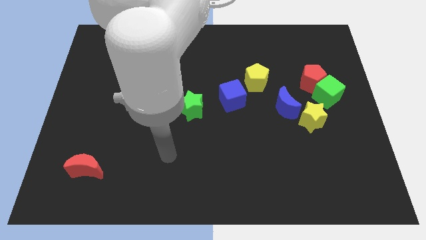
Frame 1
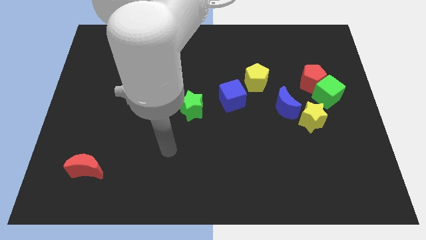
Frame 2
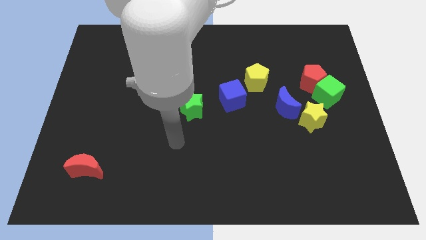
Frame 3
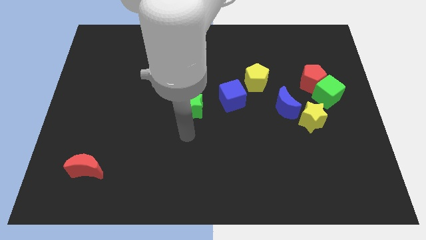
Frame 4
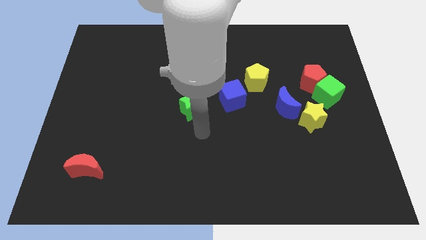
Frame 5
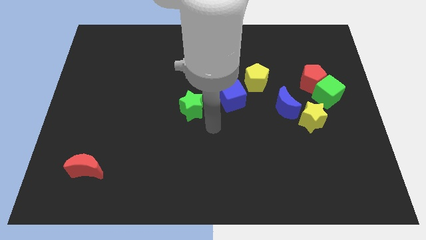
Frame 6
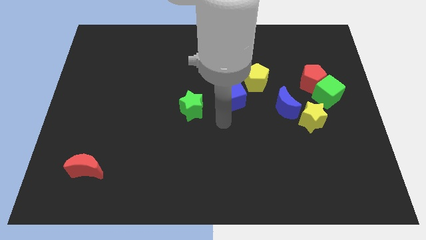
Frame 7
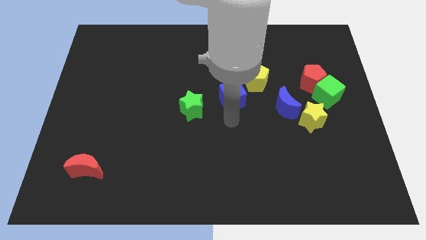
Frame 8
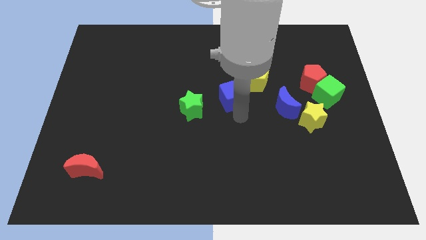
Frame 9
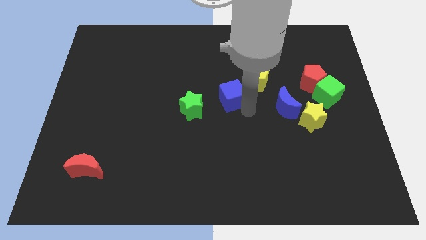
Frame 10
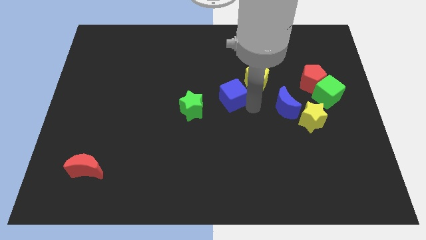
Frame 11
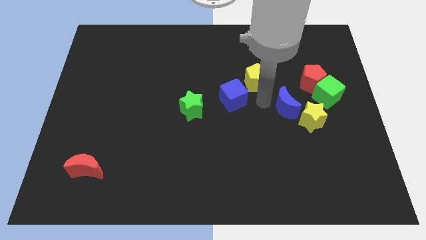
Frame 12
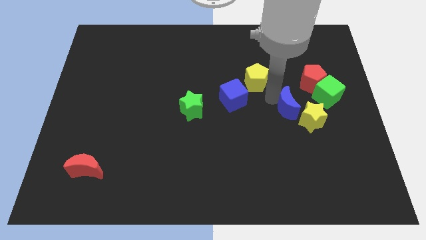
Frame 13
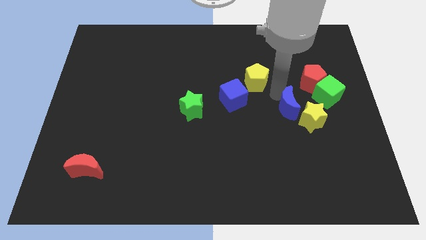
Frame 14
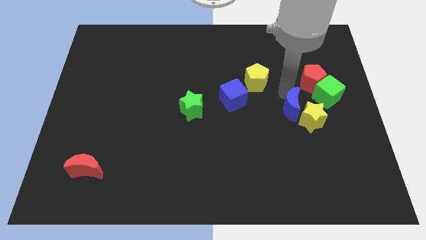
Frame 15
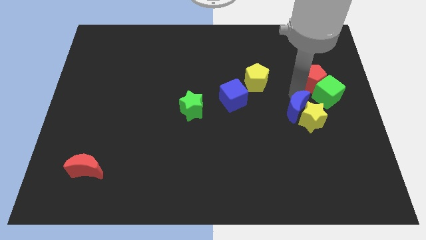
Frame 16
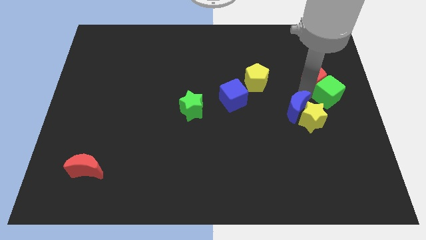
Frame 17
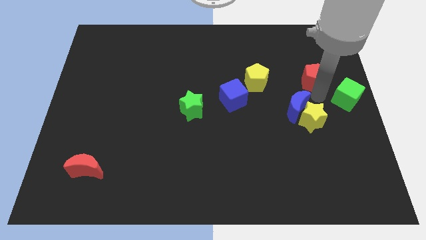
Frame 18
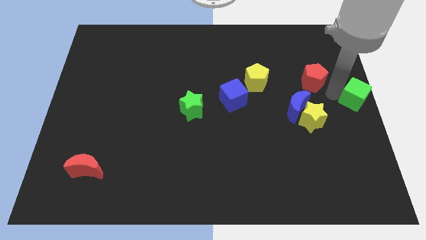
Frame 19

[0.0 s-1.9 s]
move the red pentagon away from the green cube

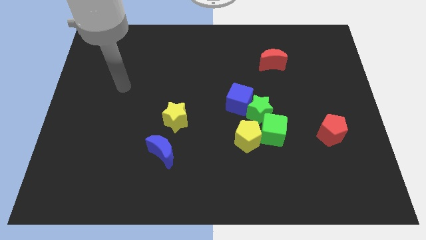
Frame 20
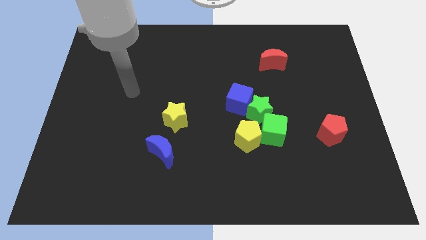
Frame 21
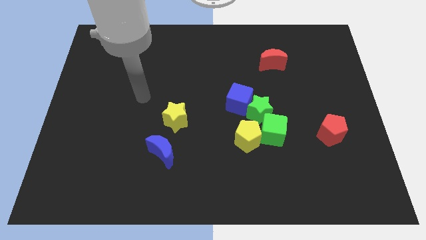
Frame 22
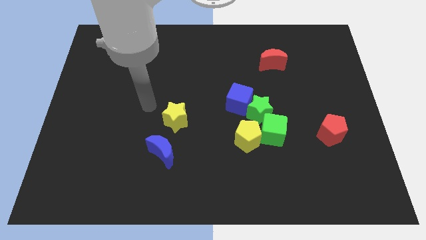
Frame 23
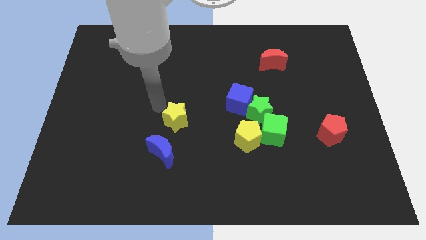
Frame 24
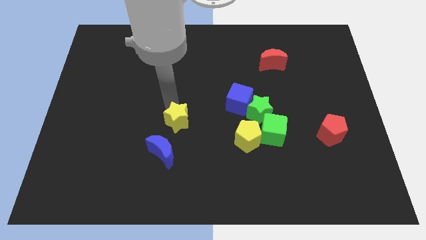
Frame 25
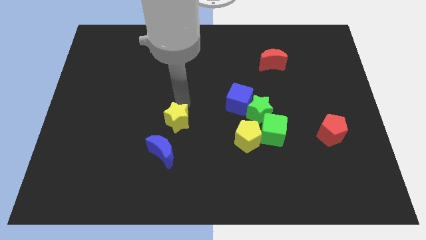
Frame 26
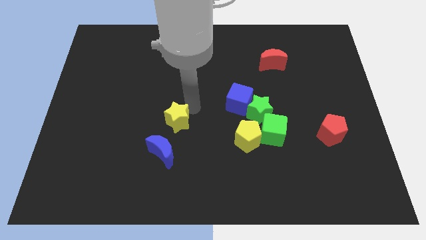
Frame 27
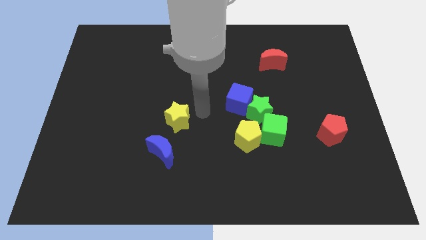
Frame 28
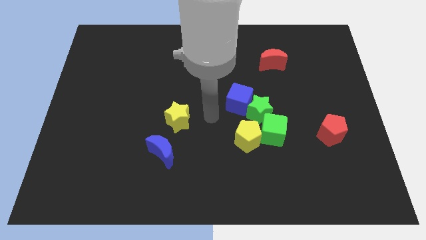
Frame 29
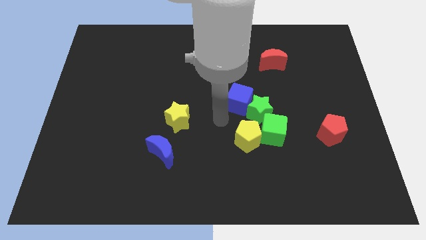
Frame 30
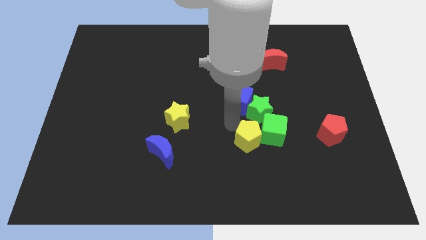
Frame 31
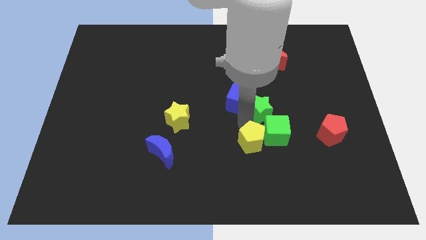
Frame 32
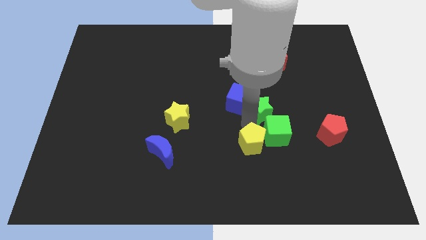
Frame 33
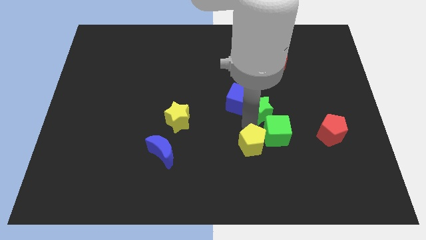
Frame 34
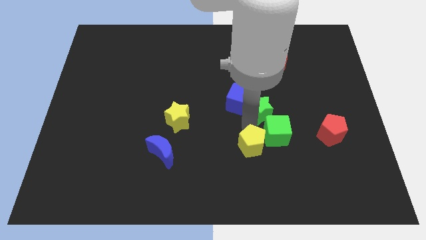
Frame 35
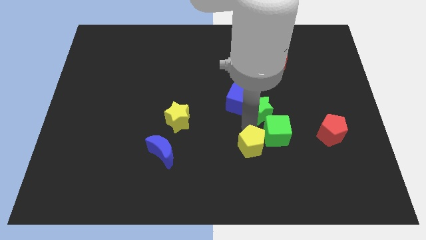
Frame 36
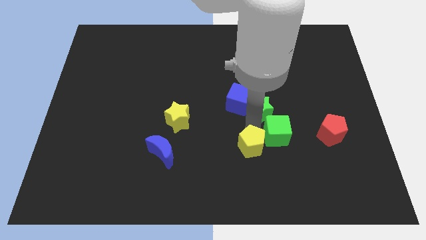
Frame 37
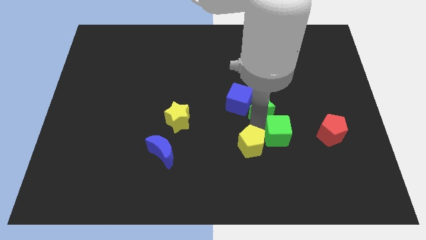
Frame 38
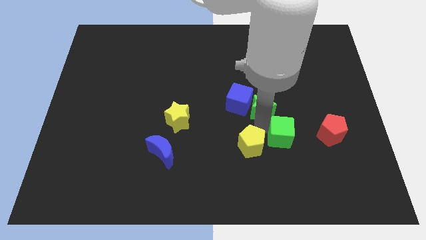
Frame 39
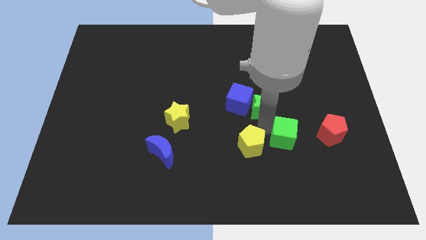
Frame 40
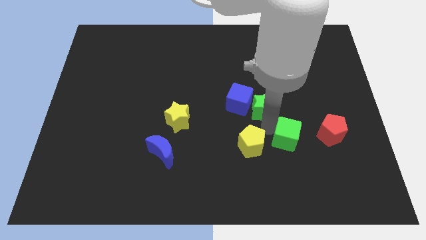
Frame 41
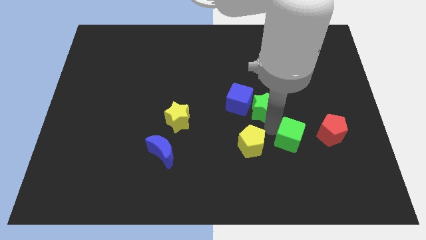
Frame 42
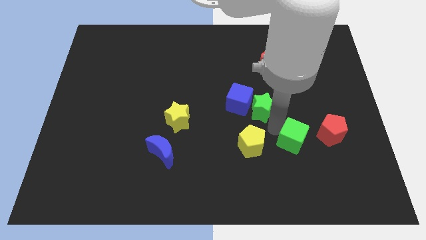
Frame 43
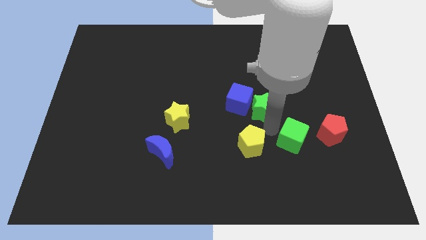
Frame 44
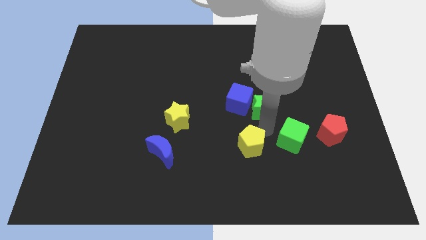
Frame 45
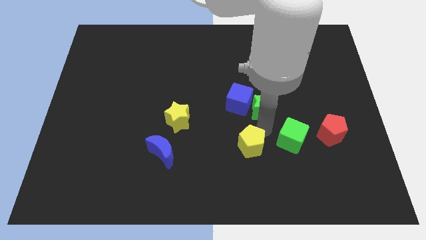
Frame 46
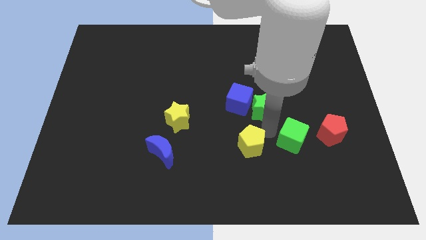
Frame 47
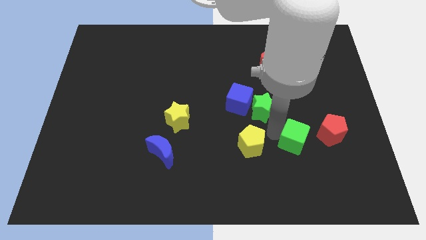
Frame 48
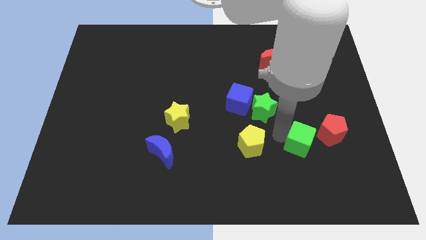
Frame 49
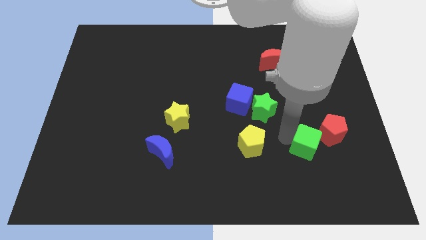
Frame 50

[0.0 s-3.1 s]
move the green cube away from the green star and yellow pentagon

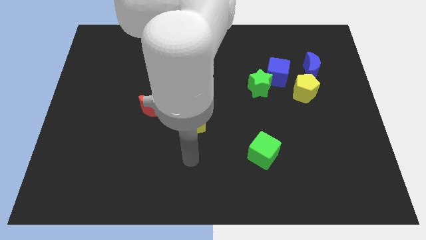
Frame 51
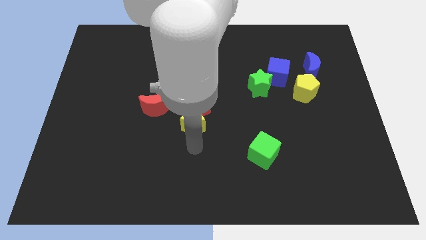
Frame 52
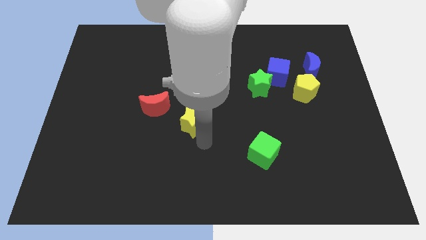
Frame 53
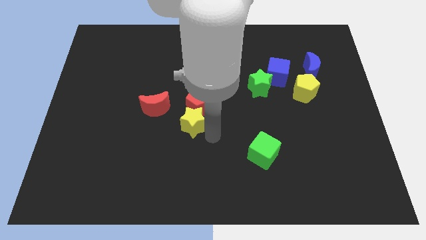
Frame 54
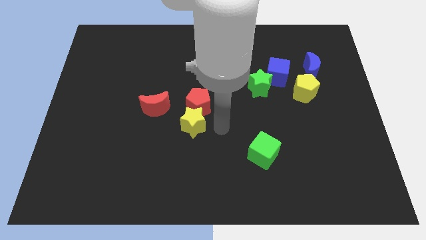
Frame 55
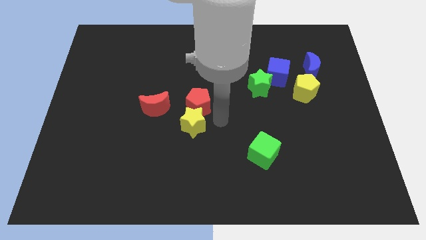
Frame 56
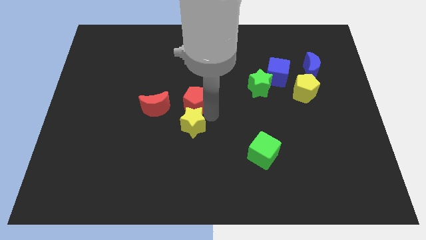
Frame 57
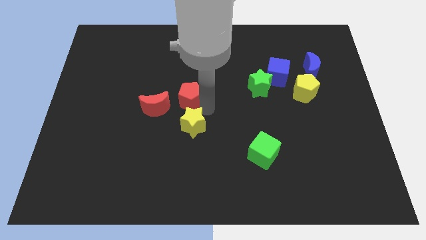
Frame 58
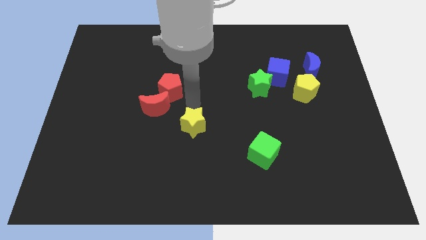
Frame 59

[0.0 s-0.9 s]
move the yellow star away from the red pentagon

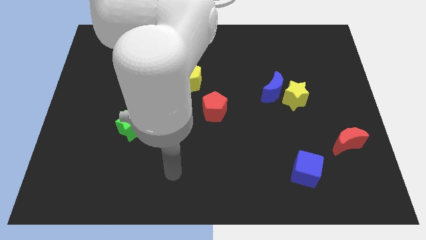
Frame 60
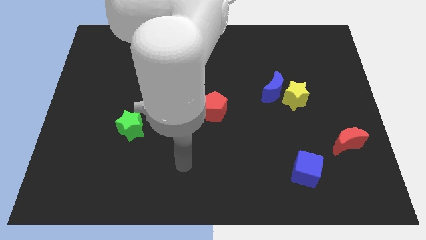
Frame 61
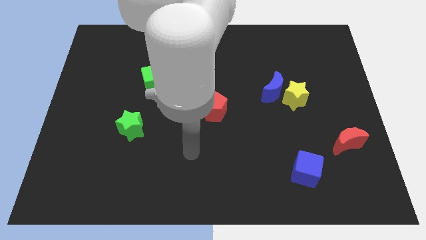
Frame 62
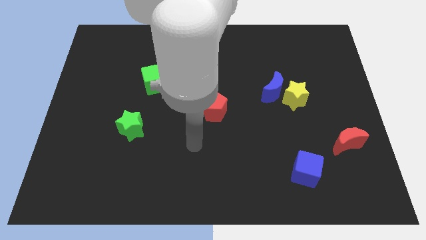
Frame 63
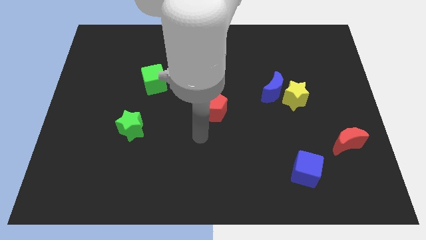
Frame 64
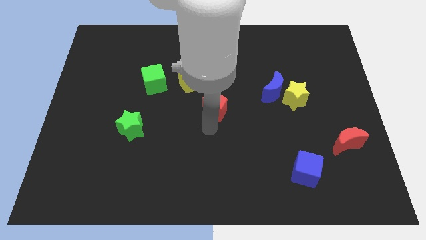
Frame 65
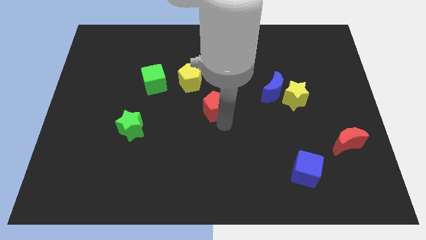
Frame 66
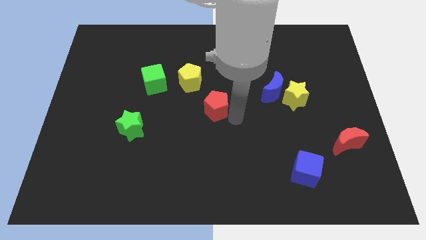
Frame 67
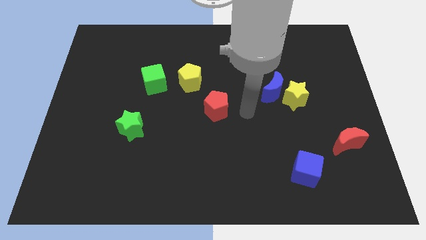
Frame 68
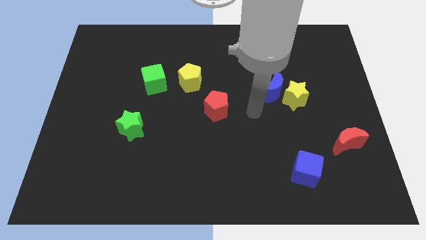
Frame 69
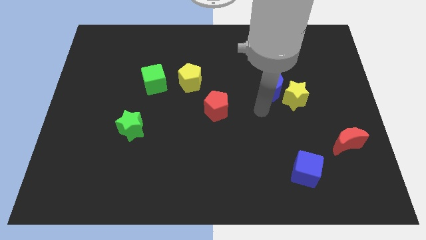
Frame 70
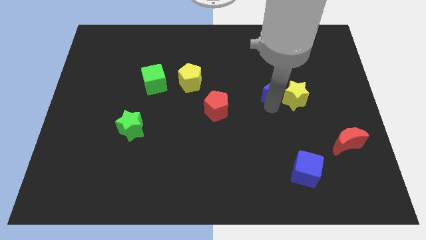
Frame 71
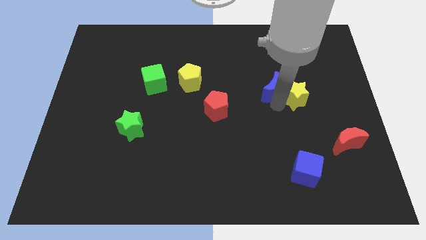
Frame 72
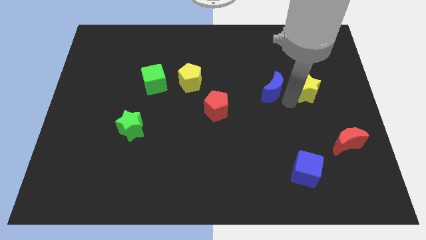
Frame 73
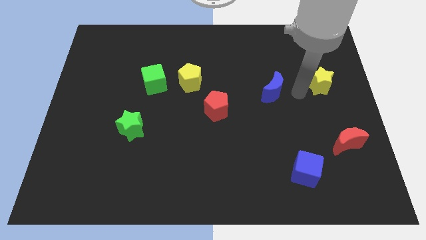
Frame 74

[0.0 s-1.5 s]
move the blue moon away from the yellow star

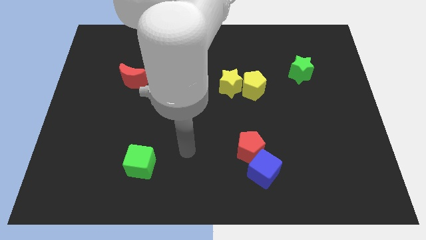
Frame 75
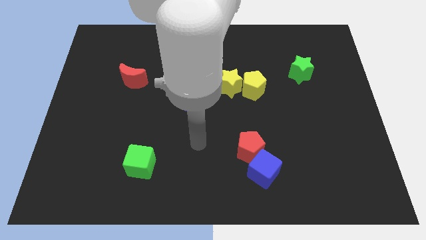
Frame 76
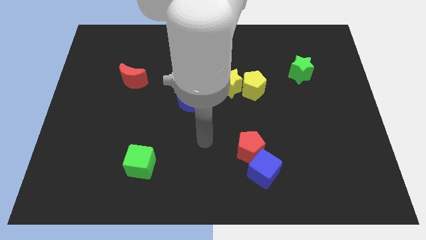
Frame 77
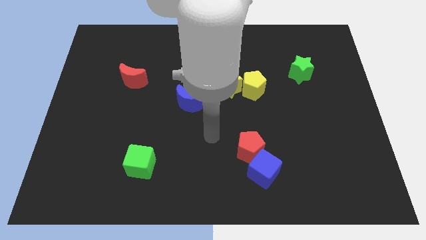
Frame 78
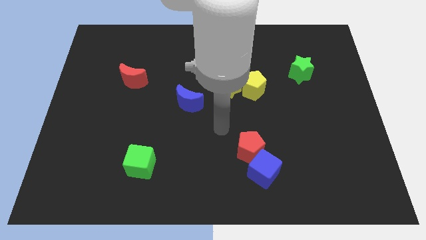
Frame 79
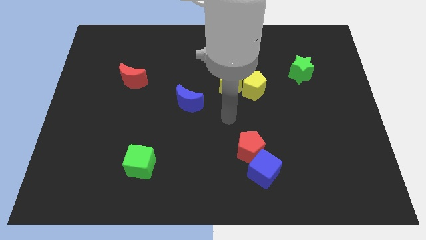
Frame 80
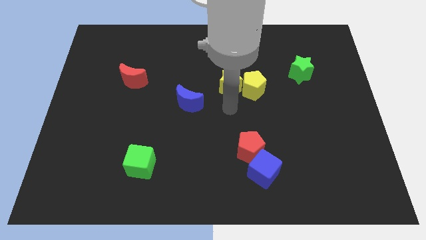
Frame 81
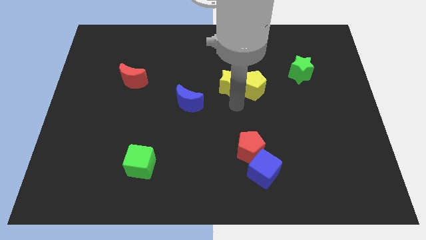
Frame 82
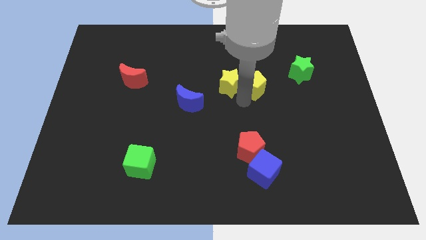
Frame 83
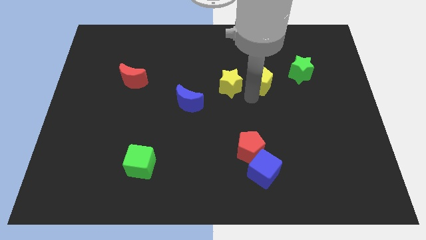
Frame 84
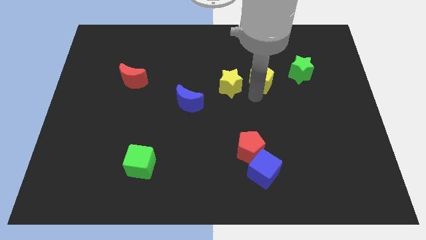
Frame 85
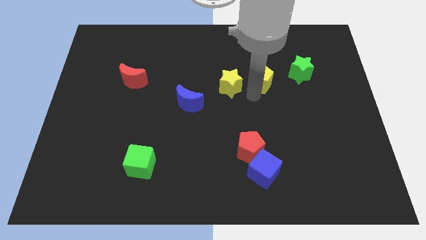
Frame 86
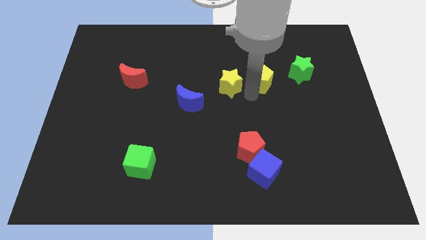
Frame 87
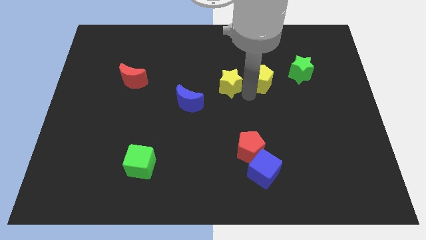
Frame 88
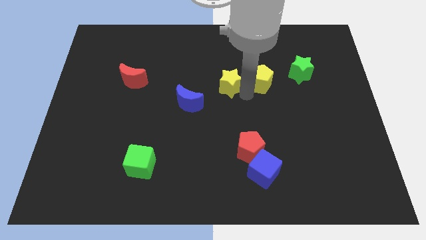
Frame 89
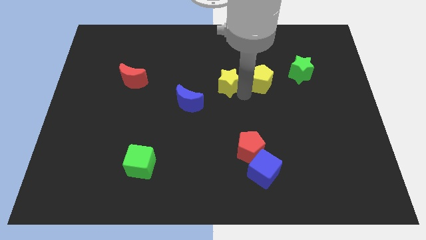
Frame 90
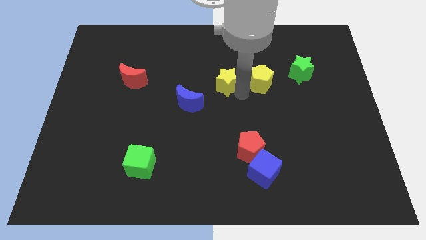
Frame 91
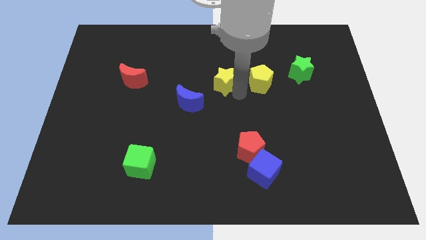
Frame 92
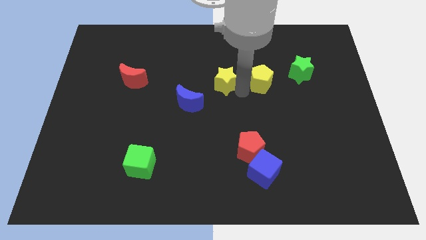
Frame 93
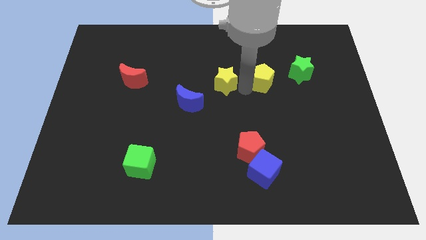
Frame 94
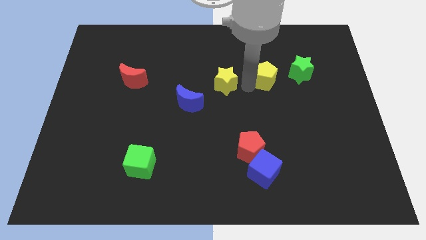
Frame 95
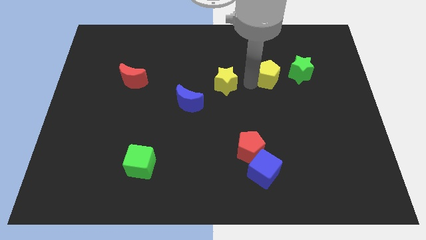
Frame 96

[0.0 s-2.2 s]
pull the yellow star apart from the yellow pentagon
